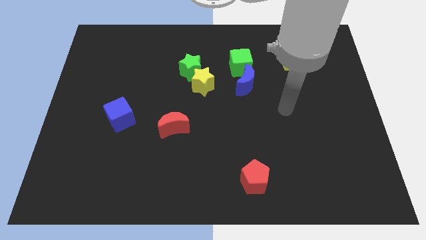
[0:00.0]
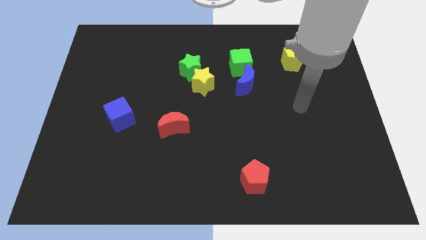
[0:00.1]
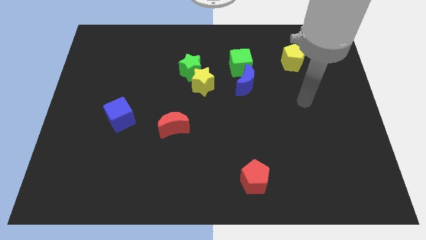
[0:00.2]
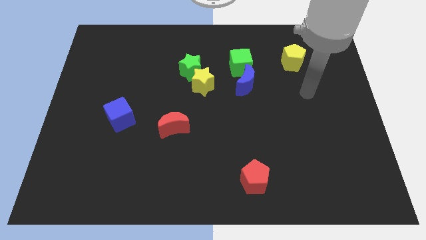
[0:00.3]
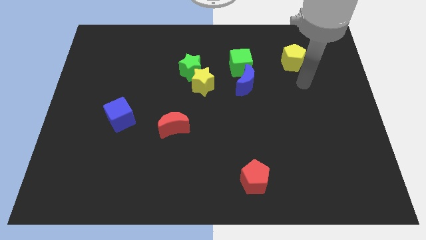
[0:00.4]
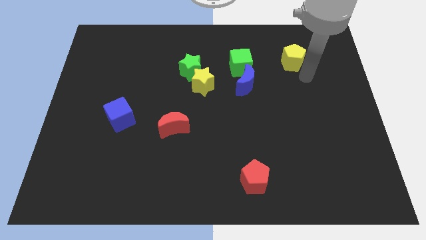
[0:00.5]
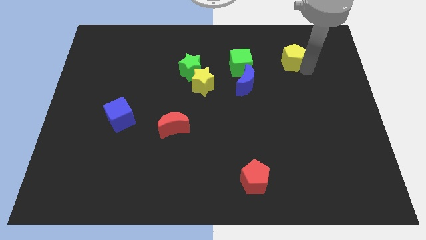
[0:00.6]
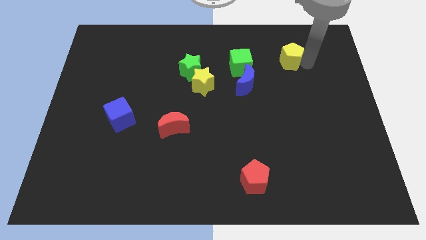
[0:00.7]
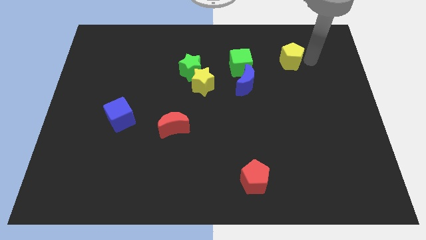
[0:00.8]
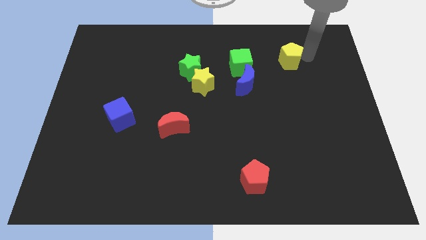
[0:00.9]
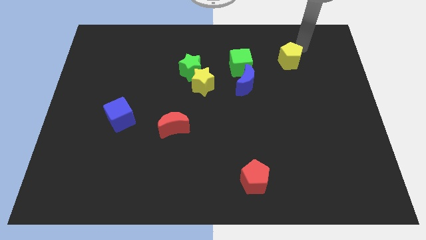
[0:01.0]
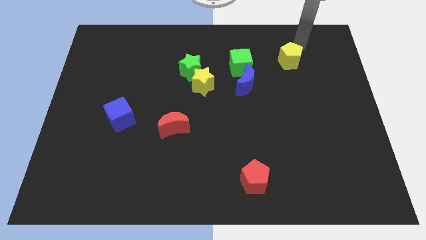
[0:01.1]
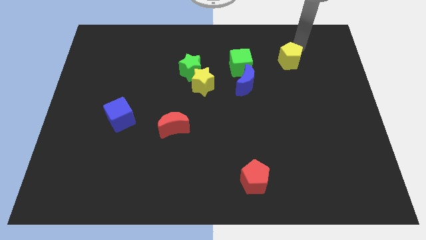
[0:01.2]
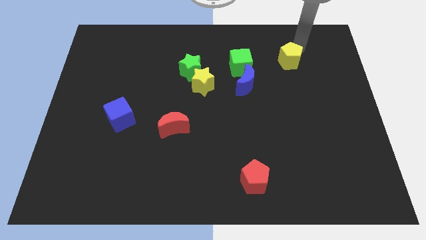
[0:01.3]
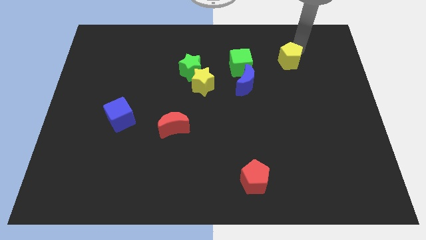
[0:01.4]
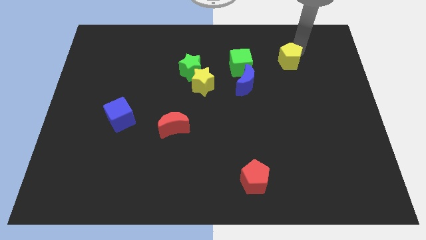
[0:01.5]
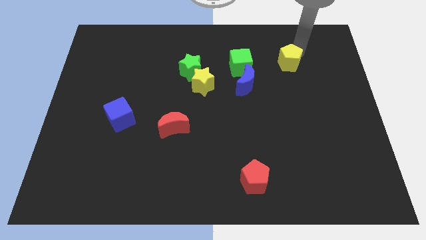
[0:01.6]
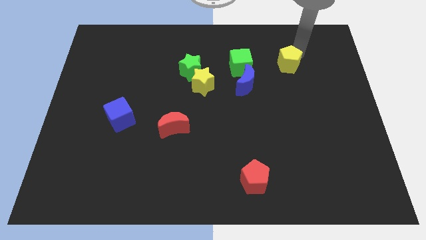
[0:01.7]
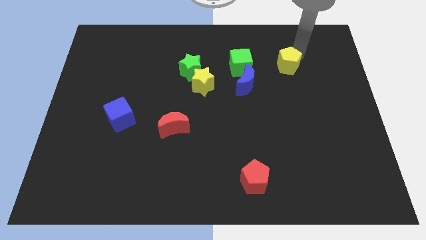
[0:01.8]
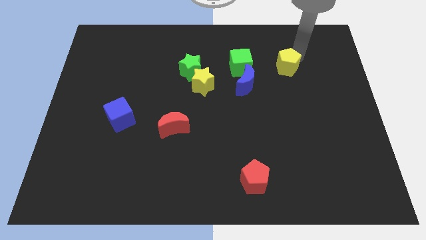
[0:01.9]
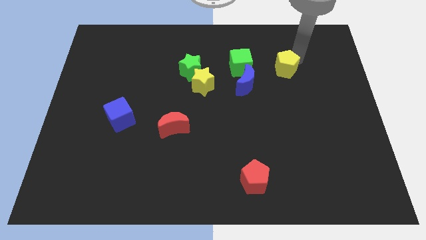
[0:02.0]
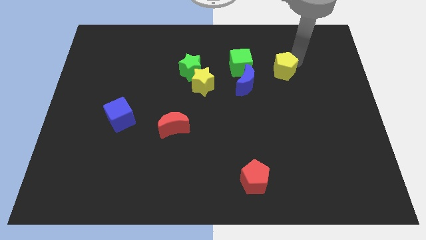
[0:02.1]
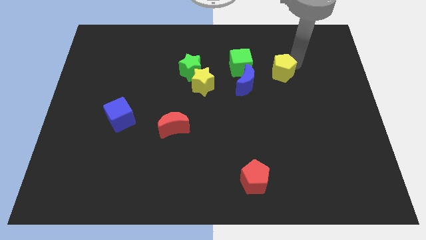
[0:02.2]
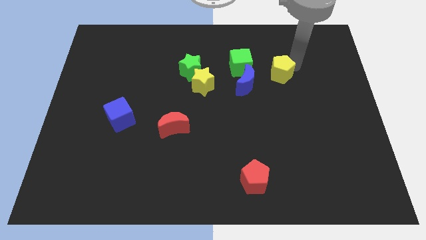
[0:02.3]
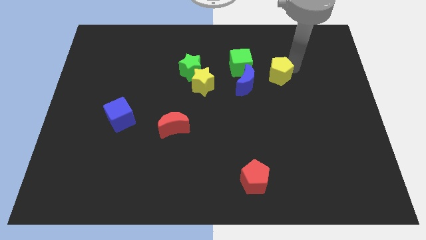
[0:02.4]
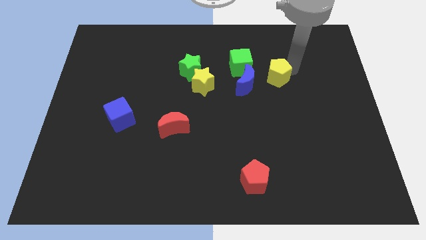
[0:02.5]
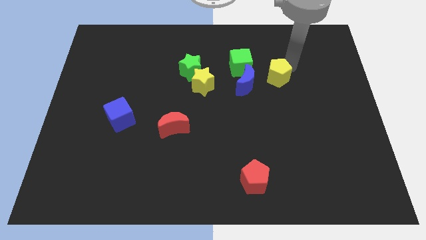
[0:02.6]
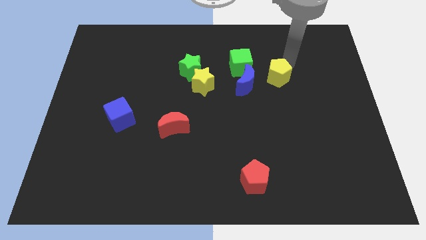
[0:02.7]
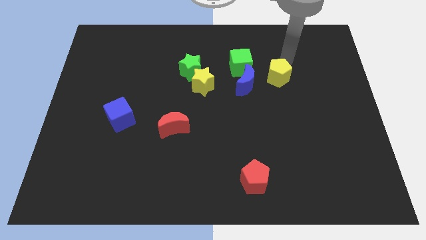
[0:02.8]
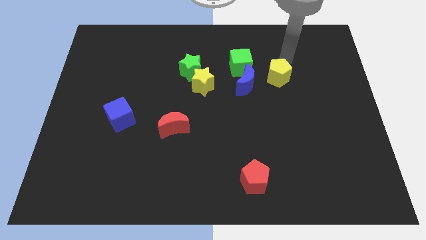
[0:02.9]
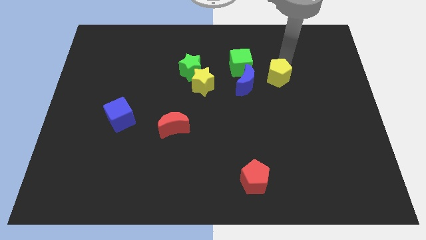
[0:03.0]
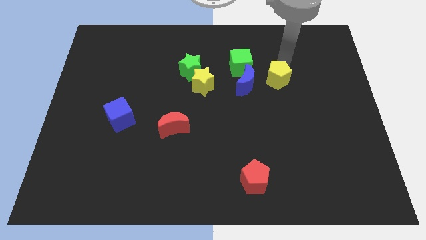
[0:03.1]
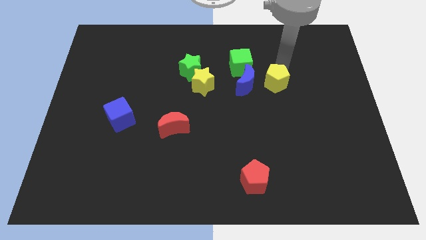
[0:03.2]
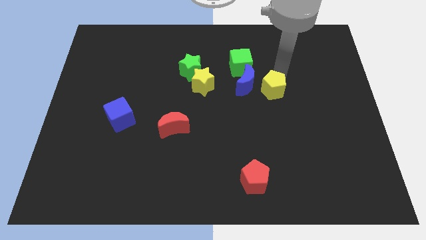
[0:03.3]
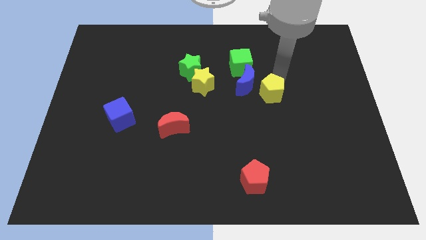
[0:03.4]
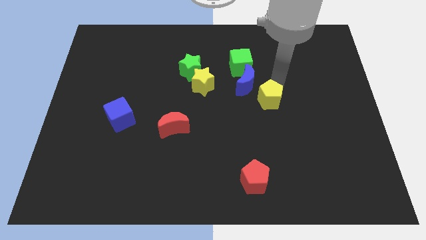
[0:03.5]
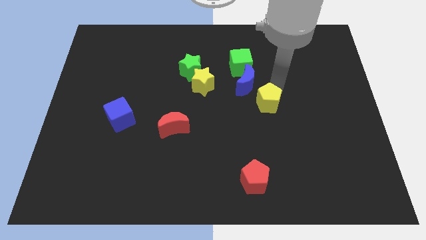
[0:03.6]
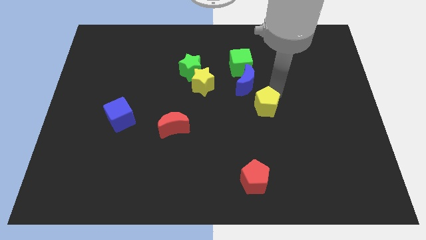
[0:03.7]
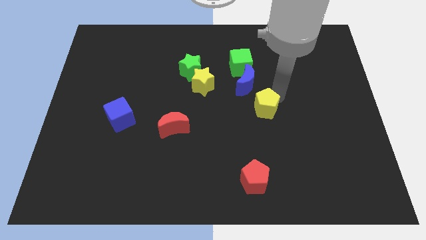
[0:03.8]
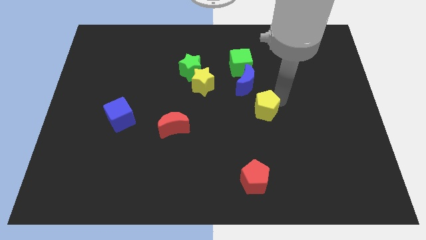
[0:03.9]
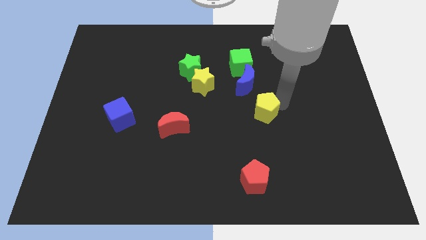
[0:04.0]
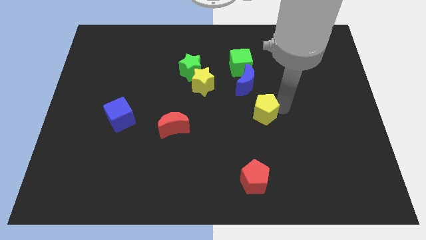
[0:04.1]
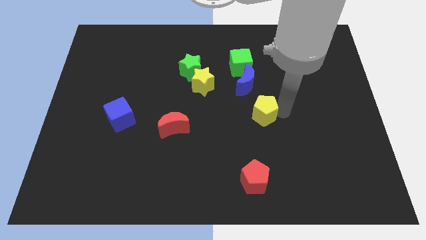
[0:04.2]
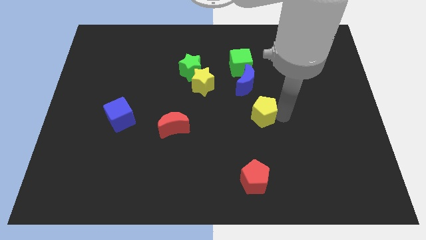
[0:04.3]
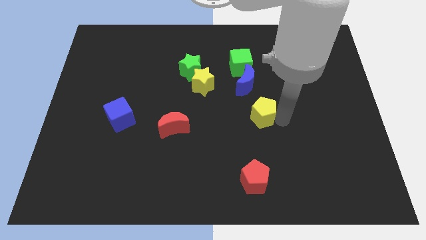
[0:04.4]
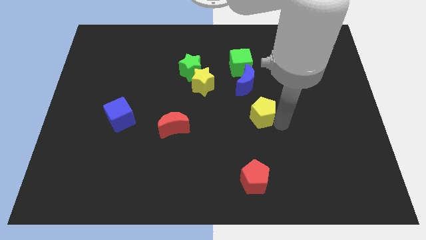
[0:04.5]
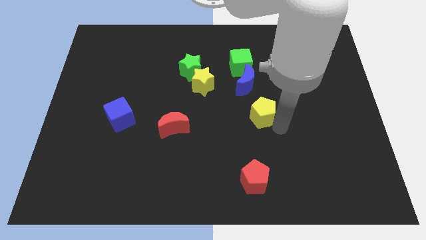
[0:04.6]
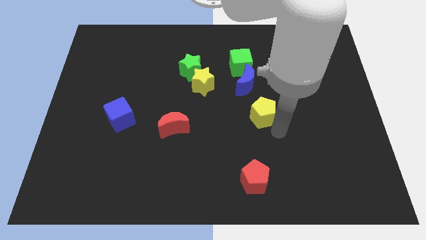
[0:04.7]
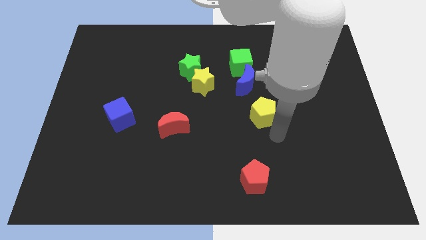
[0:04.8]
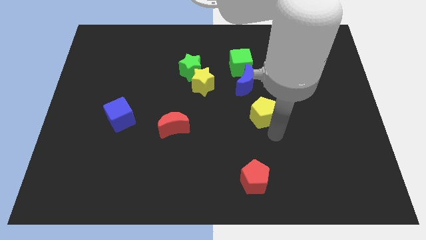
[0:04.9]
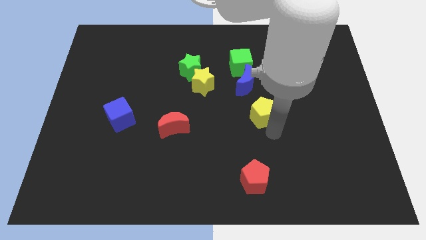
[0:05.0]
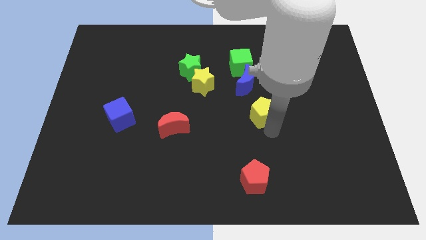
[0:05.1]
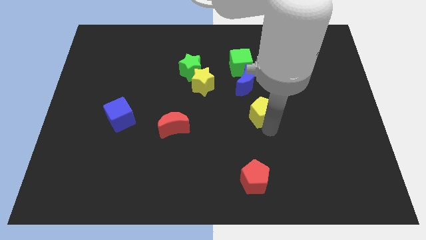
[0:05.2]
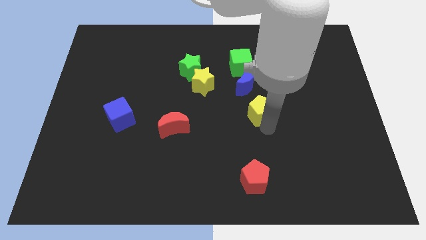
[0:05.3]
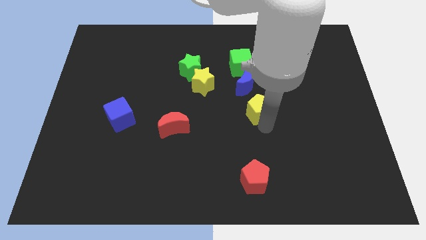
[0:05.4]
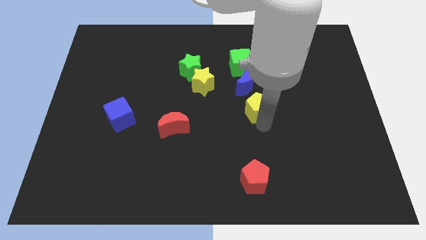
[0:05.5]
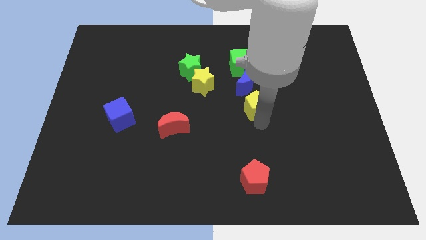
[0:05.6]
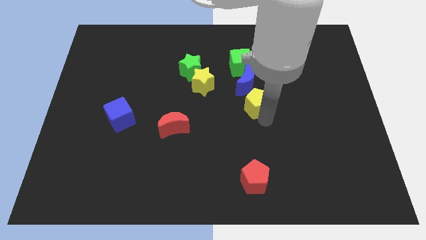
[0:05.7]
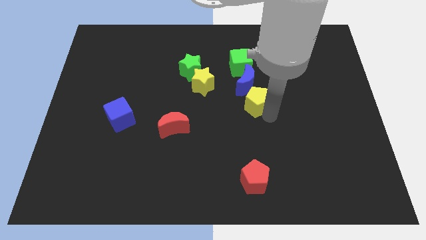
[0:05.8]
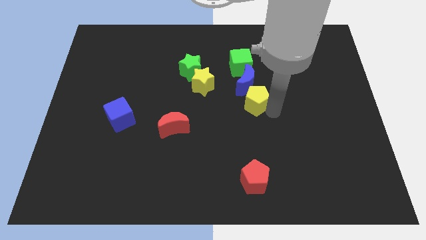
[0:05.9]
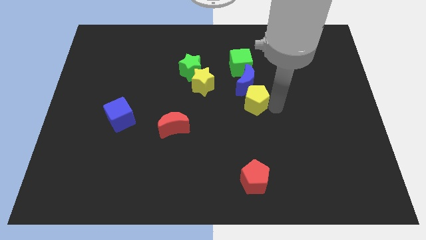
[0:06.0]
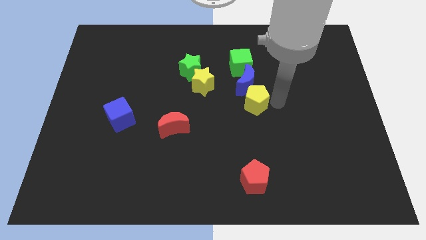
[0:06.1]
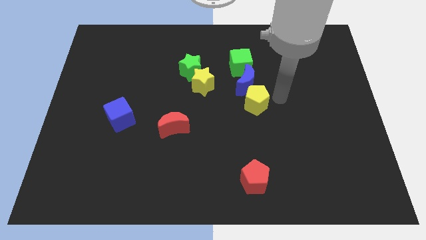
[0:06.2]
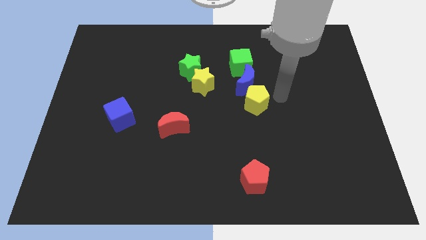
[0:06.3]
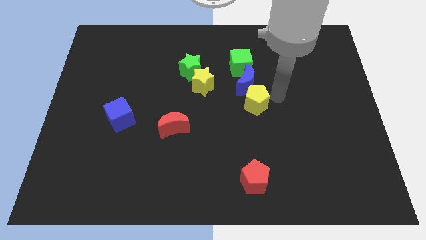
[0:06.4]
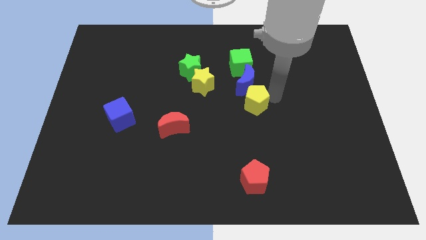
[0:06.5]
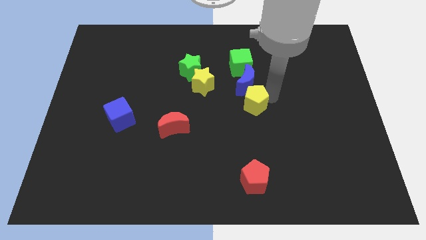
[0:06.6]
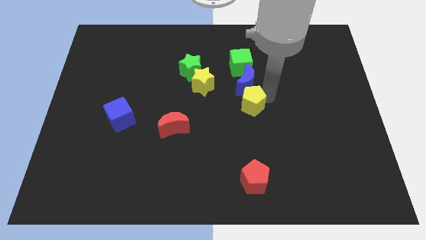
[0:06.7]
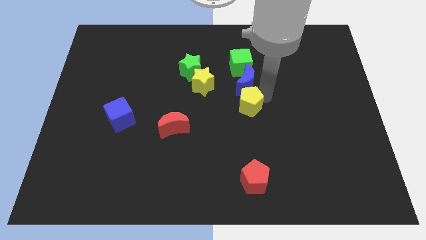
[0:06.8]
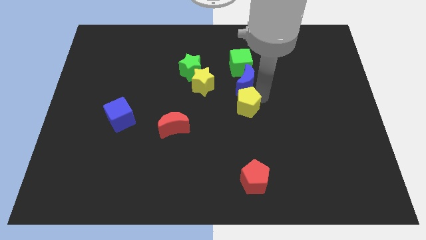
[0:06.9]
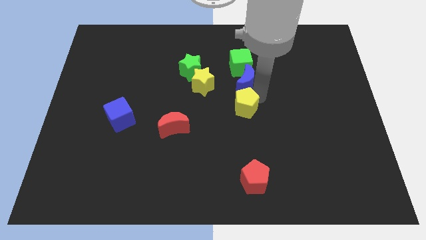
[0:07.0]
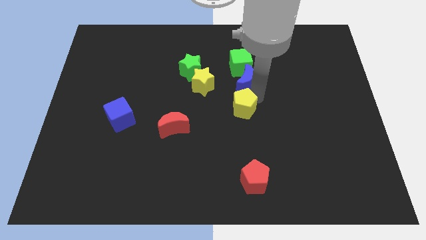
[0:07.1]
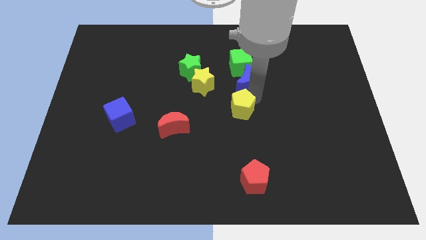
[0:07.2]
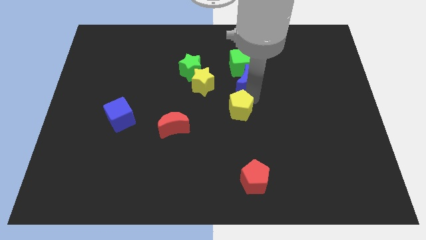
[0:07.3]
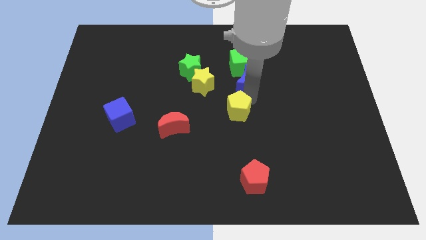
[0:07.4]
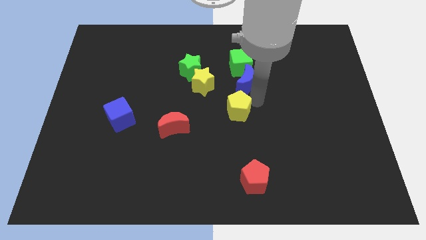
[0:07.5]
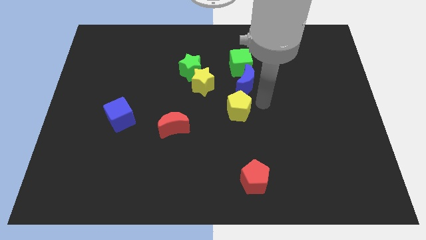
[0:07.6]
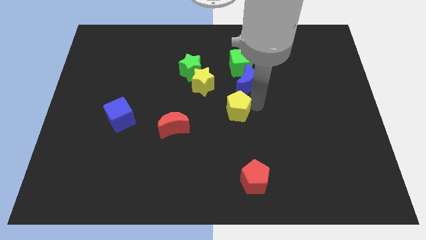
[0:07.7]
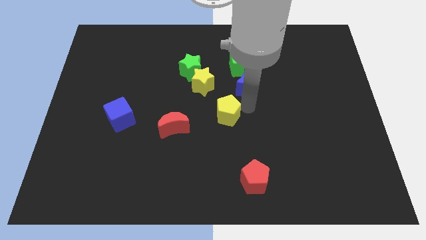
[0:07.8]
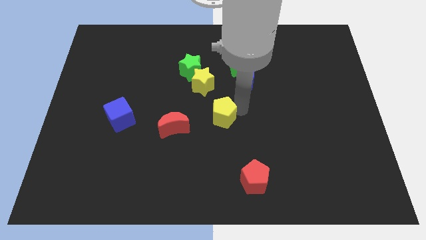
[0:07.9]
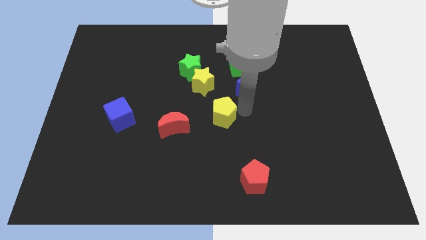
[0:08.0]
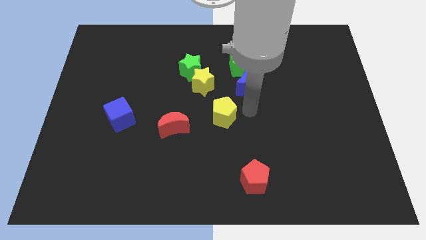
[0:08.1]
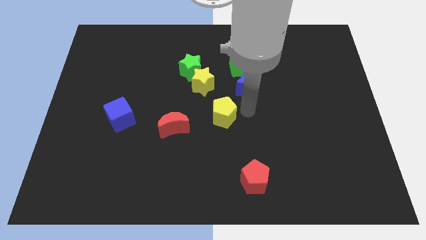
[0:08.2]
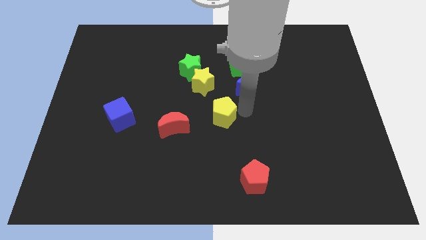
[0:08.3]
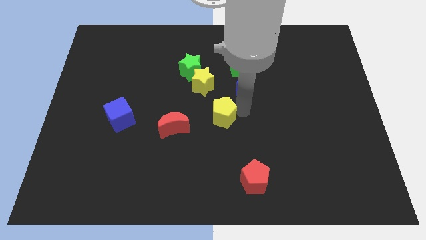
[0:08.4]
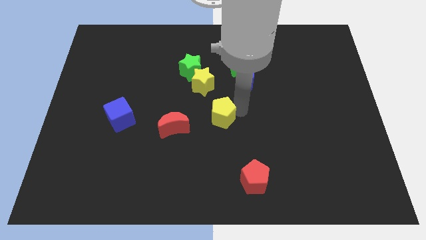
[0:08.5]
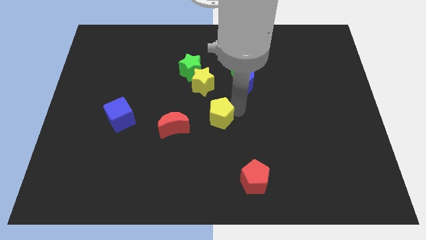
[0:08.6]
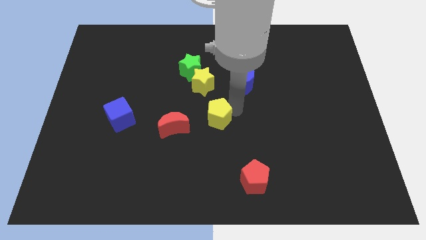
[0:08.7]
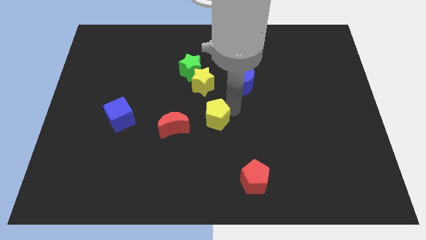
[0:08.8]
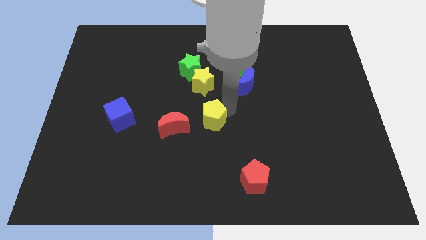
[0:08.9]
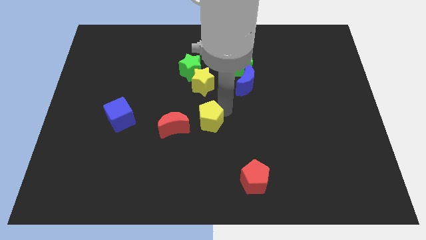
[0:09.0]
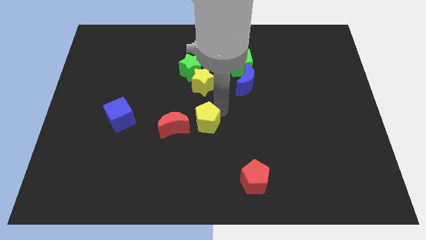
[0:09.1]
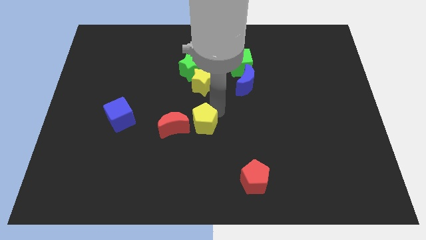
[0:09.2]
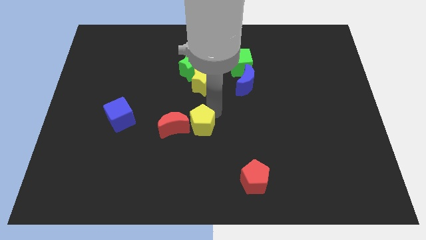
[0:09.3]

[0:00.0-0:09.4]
push the yellow pentagon close to the red moon
